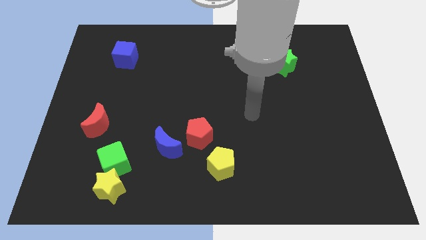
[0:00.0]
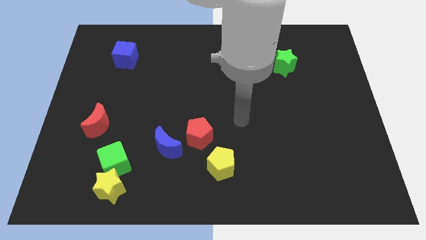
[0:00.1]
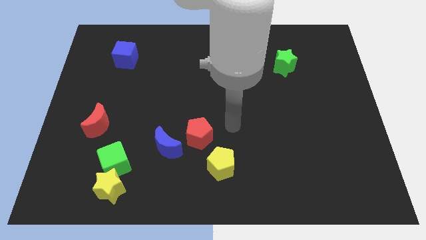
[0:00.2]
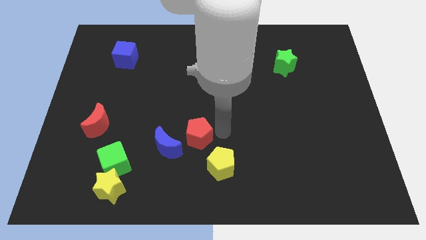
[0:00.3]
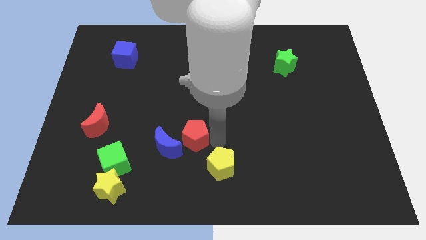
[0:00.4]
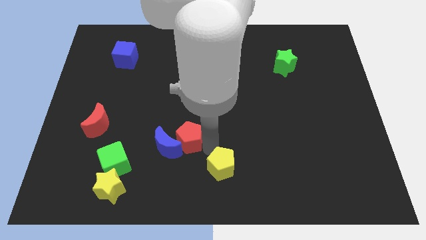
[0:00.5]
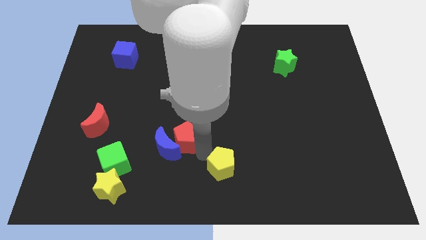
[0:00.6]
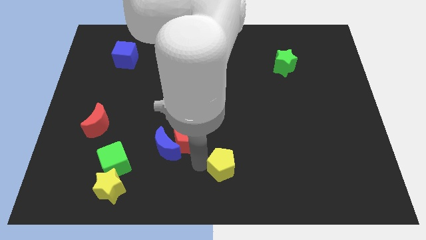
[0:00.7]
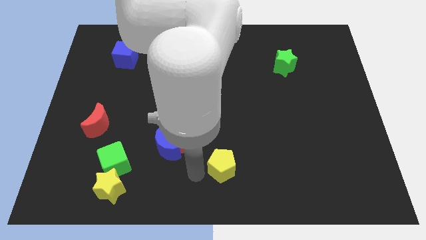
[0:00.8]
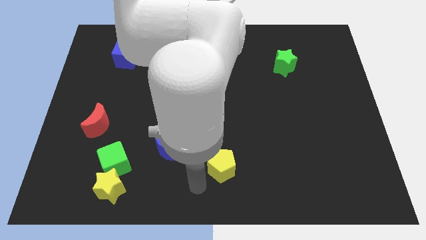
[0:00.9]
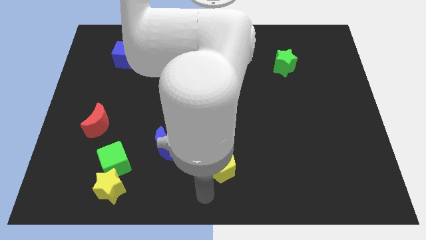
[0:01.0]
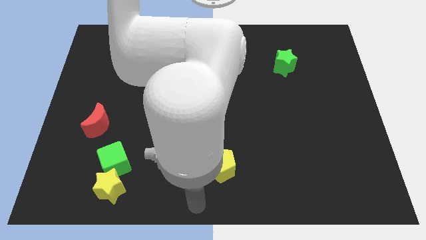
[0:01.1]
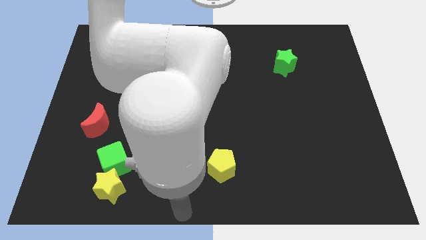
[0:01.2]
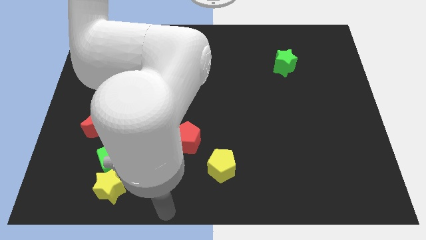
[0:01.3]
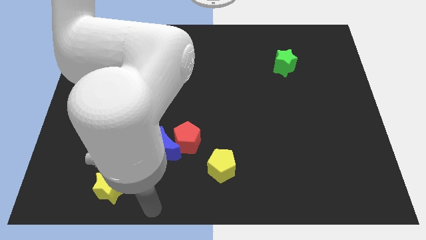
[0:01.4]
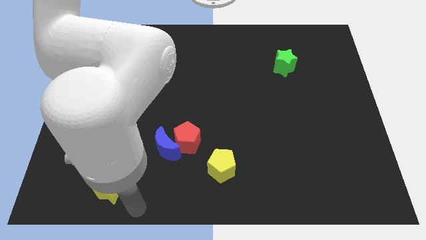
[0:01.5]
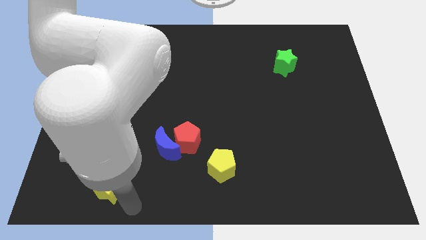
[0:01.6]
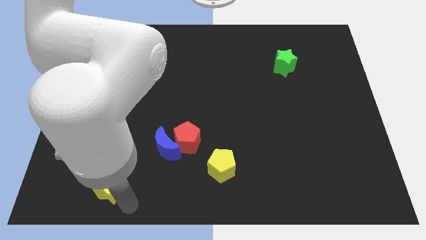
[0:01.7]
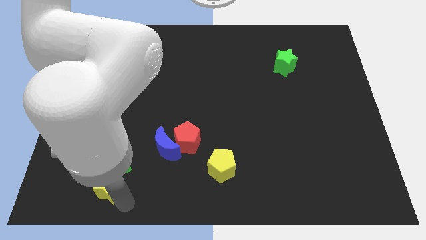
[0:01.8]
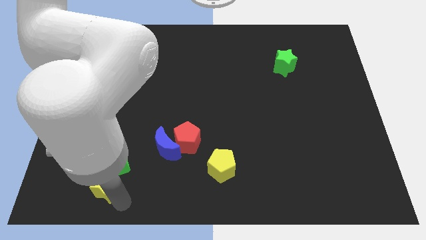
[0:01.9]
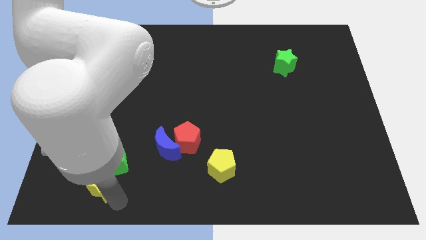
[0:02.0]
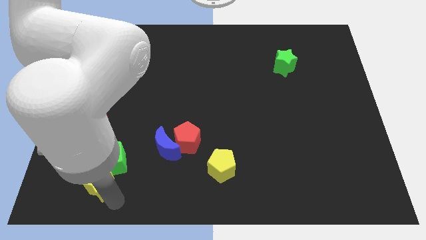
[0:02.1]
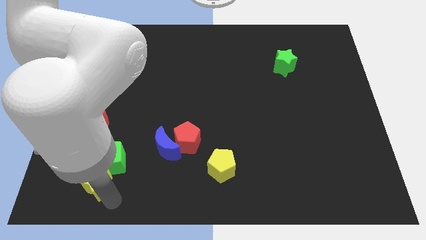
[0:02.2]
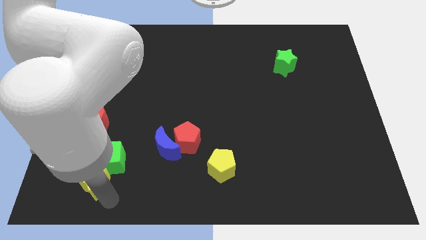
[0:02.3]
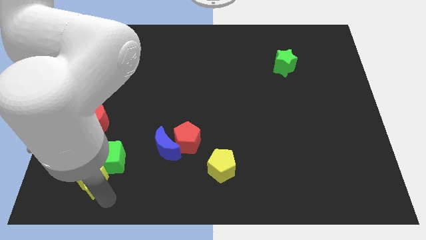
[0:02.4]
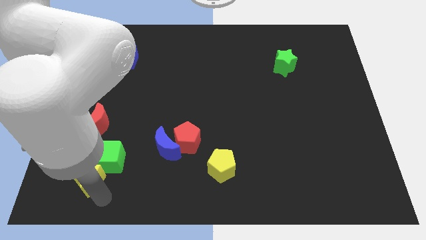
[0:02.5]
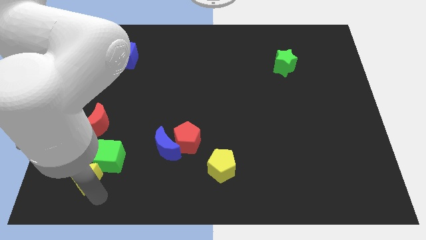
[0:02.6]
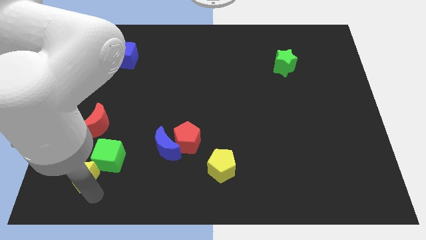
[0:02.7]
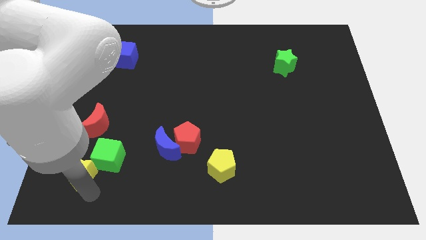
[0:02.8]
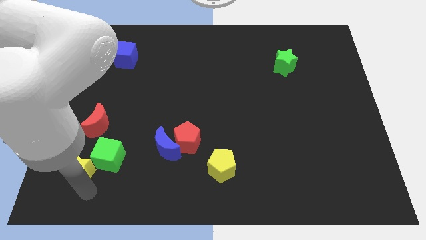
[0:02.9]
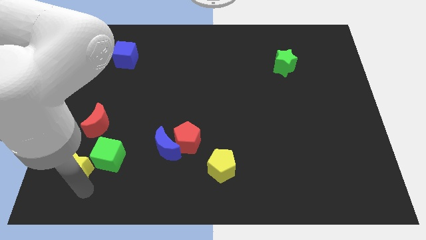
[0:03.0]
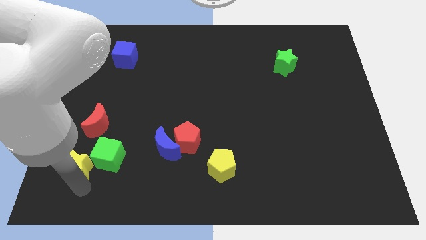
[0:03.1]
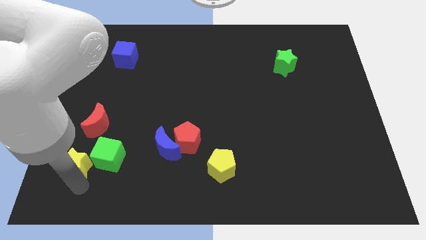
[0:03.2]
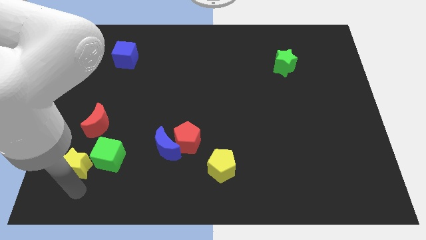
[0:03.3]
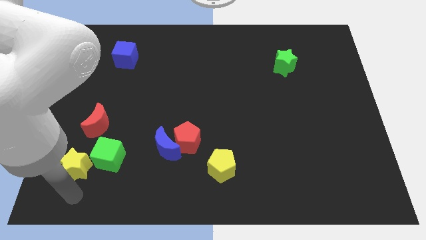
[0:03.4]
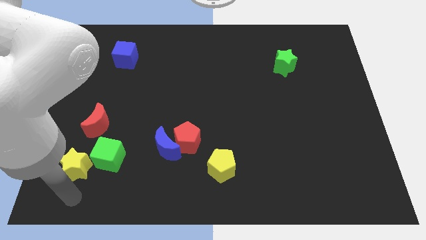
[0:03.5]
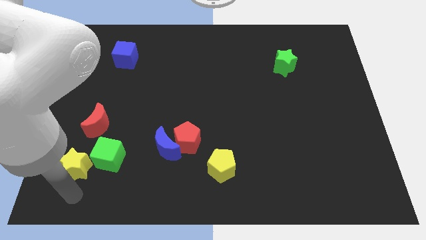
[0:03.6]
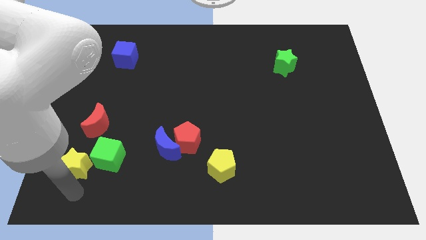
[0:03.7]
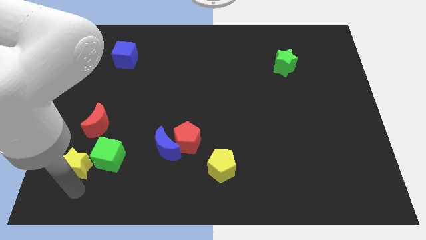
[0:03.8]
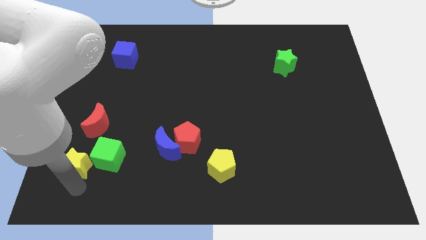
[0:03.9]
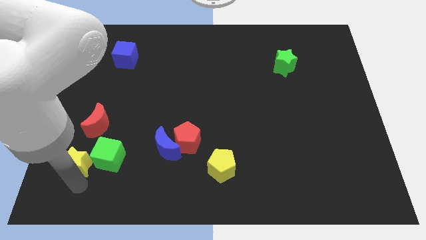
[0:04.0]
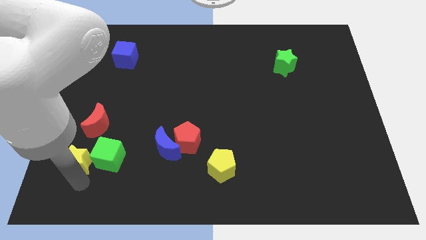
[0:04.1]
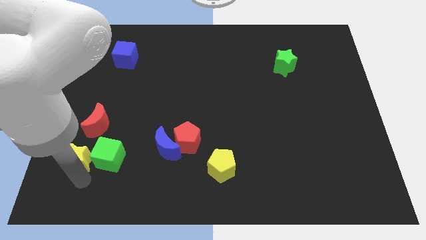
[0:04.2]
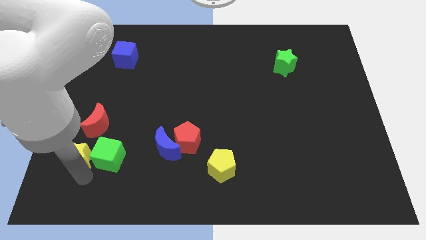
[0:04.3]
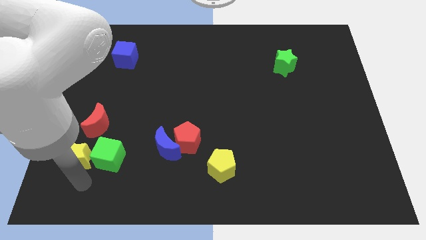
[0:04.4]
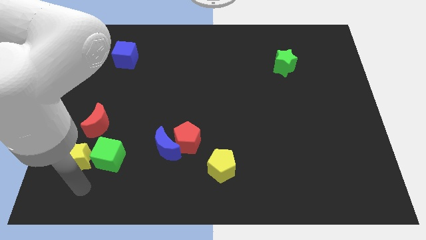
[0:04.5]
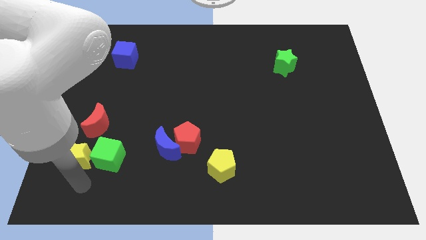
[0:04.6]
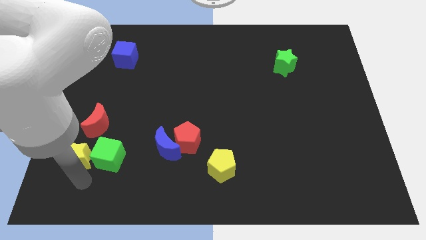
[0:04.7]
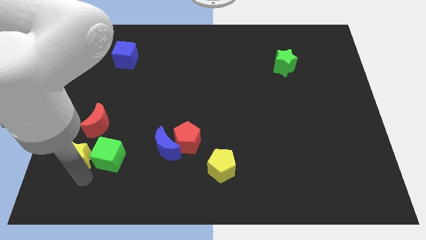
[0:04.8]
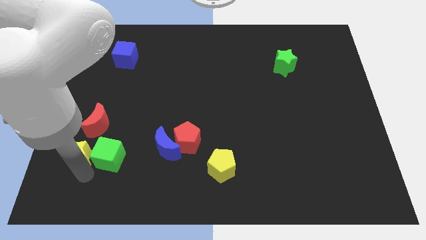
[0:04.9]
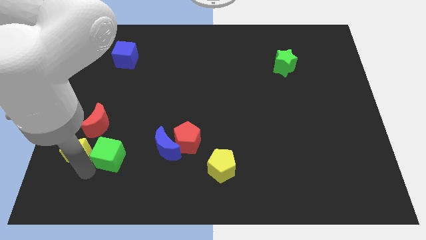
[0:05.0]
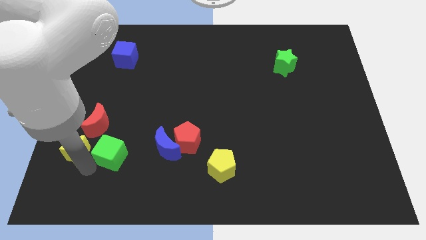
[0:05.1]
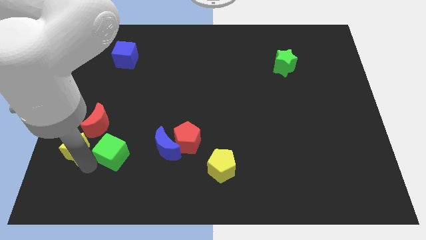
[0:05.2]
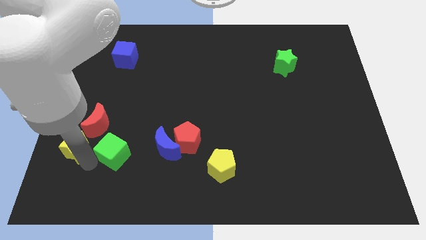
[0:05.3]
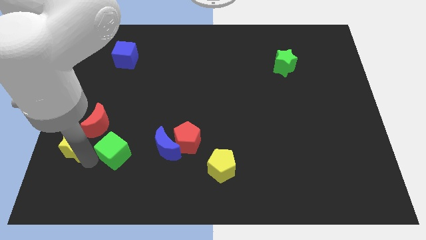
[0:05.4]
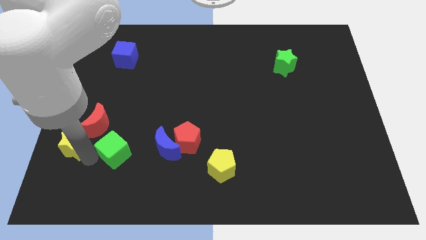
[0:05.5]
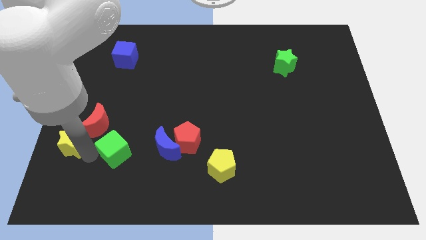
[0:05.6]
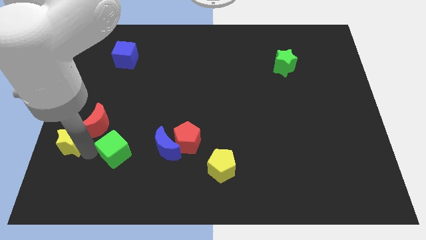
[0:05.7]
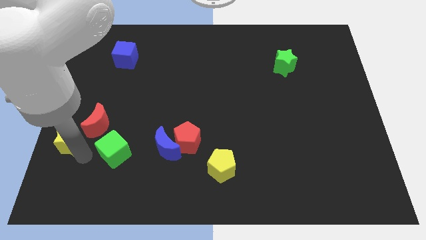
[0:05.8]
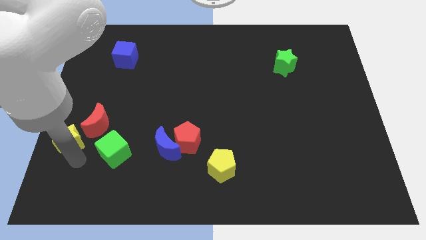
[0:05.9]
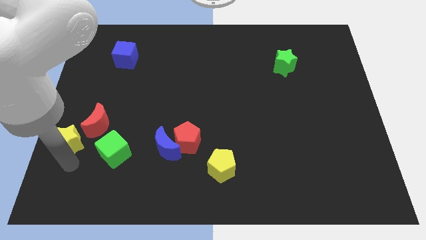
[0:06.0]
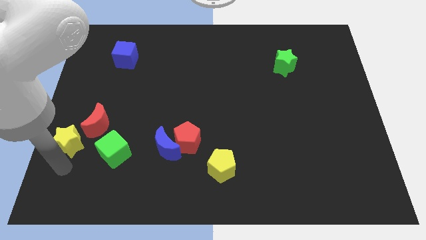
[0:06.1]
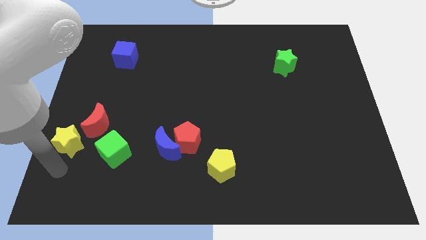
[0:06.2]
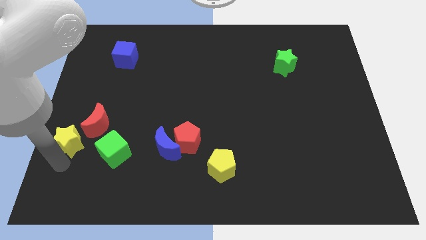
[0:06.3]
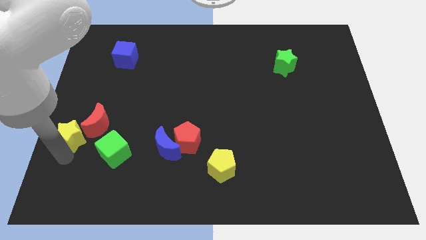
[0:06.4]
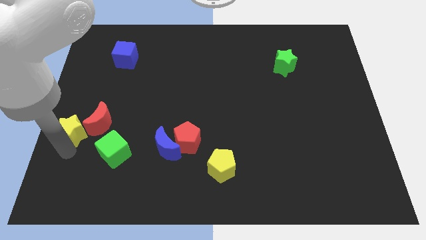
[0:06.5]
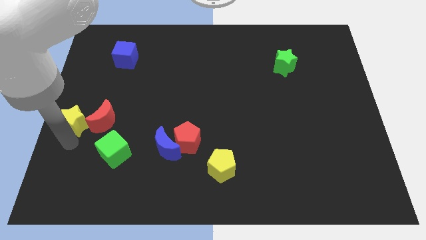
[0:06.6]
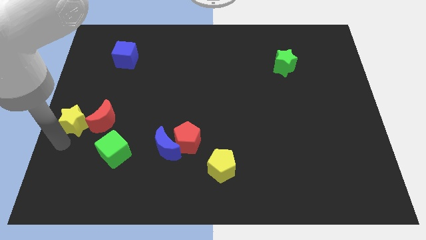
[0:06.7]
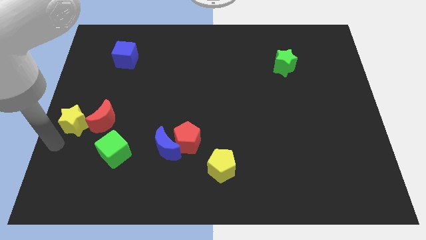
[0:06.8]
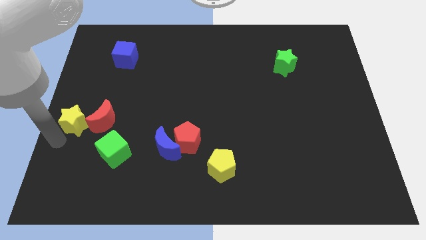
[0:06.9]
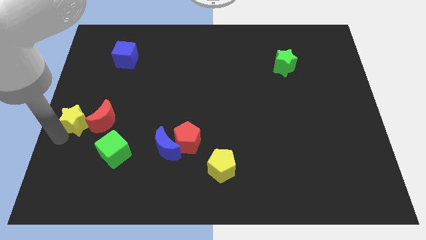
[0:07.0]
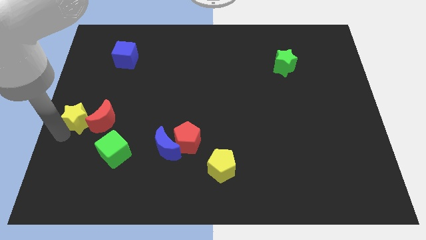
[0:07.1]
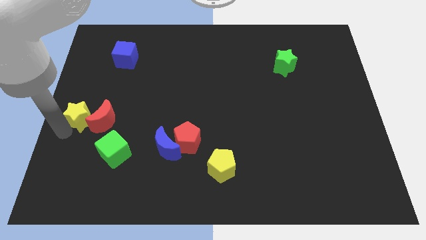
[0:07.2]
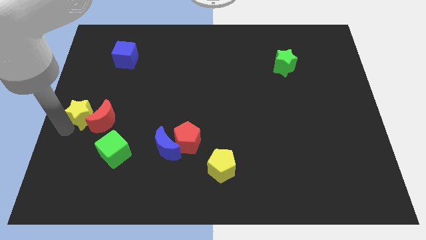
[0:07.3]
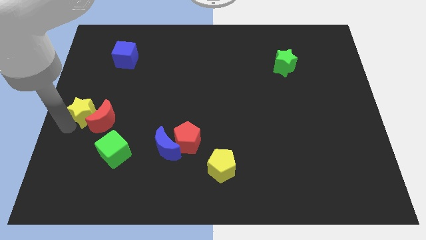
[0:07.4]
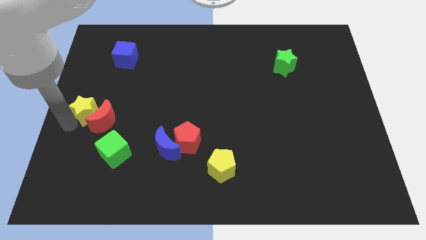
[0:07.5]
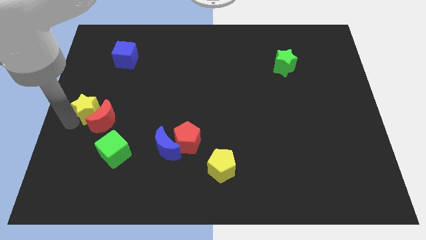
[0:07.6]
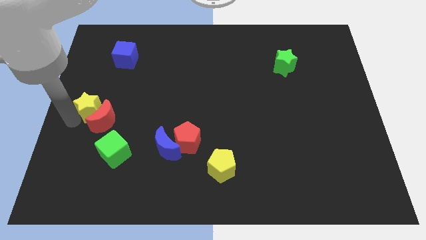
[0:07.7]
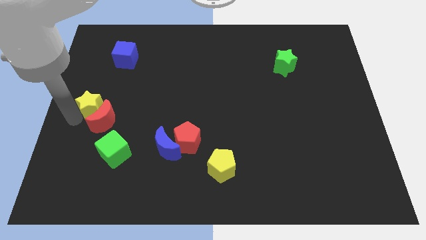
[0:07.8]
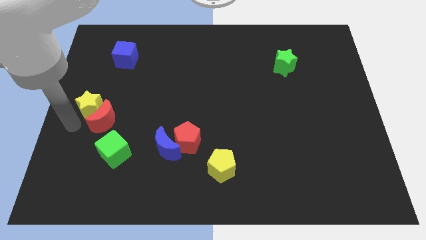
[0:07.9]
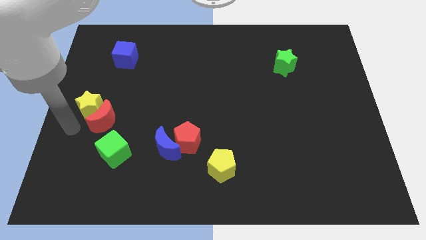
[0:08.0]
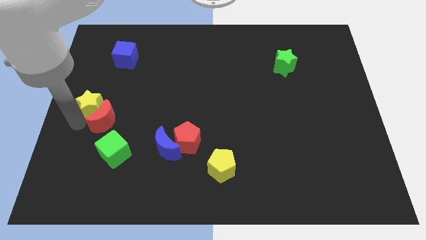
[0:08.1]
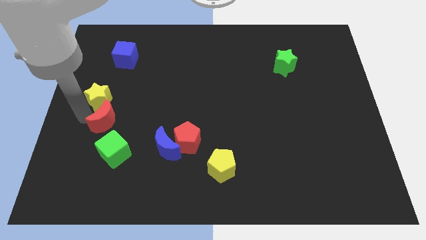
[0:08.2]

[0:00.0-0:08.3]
move the yellow star up
